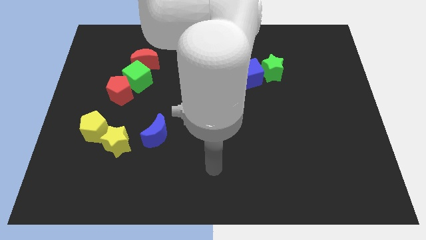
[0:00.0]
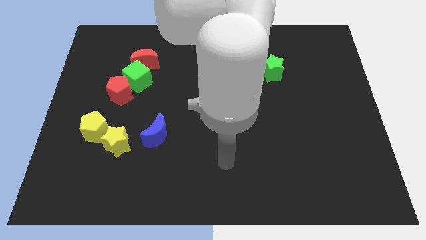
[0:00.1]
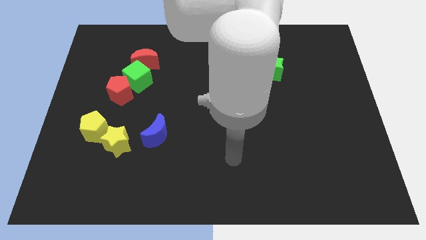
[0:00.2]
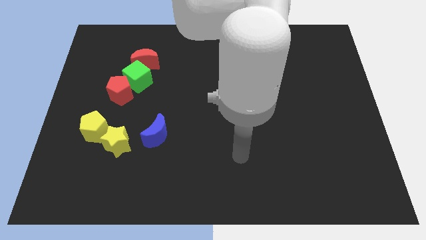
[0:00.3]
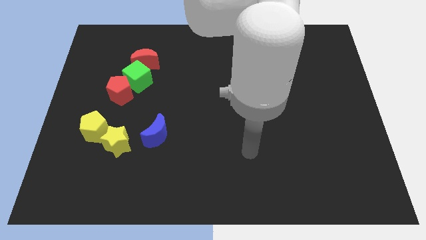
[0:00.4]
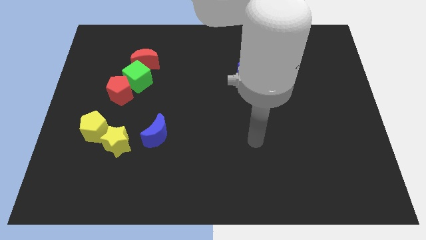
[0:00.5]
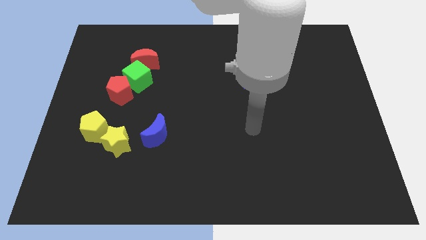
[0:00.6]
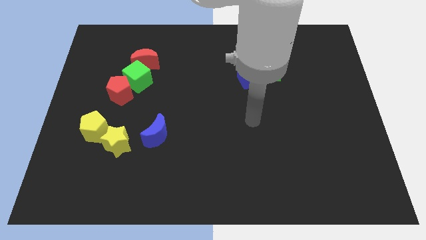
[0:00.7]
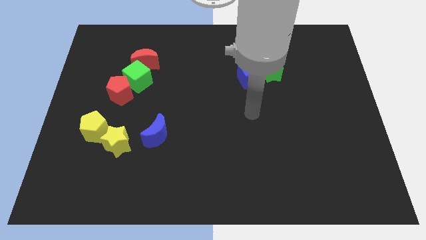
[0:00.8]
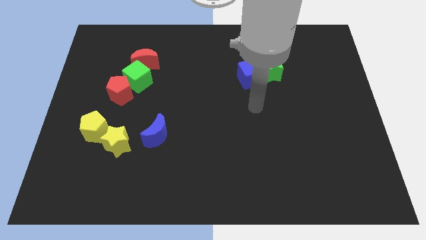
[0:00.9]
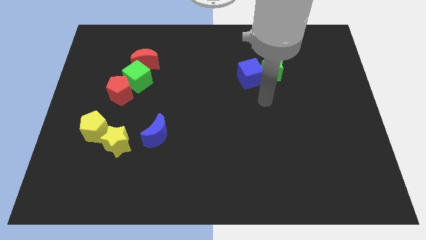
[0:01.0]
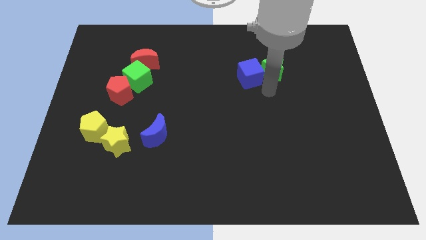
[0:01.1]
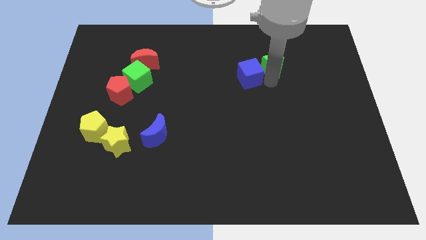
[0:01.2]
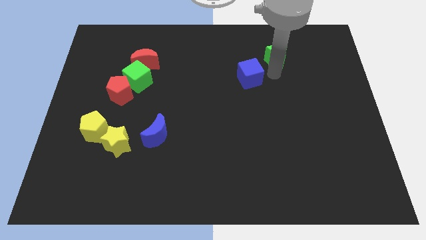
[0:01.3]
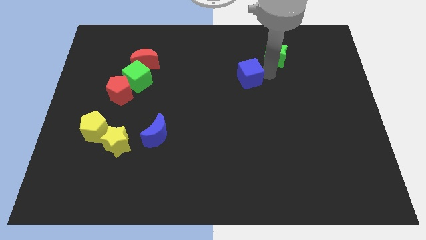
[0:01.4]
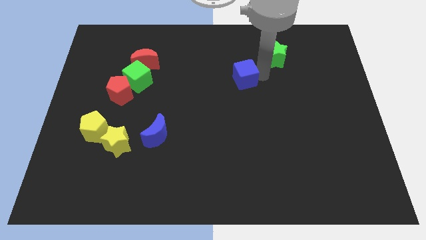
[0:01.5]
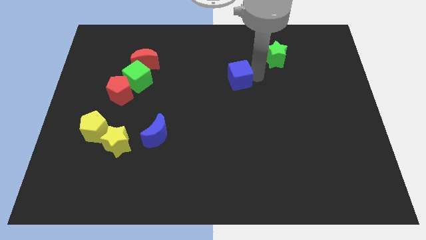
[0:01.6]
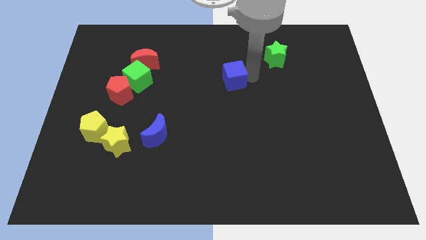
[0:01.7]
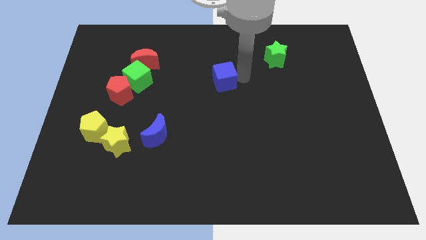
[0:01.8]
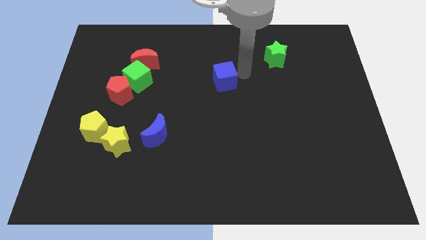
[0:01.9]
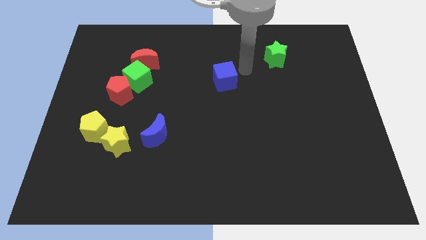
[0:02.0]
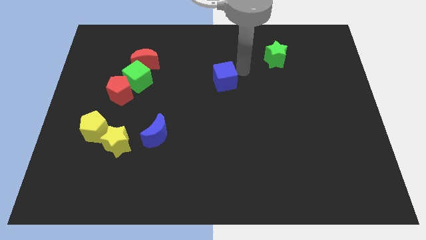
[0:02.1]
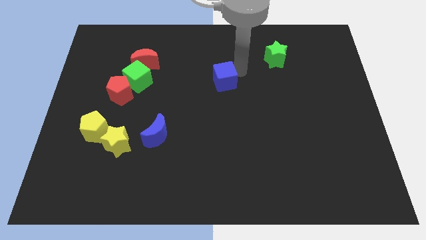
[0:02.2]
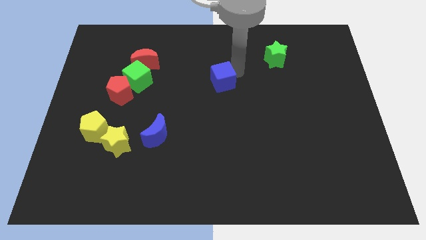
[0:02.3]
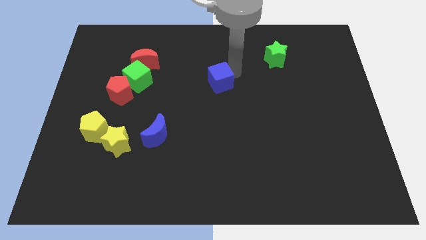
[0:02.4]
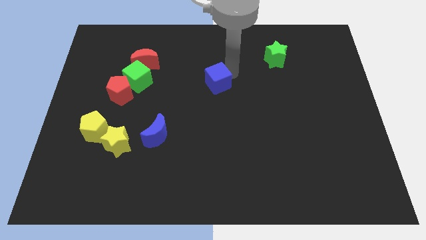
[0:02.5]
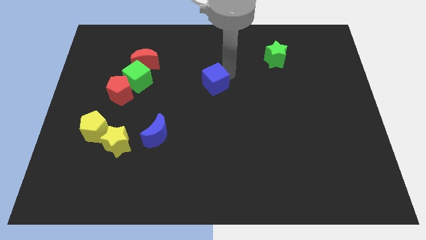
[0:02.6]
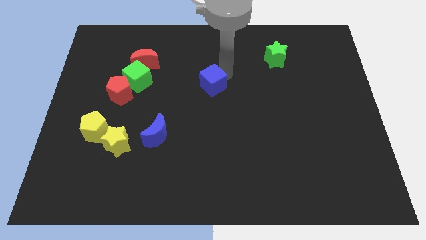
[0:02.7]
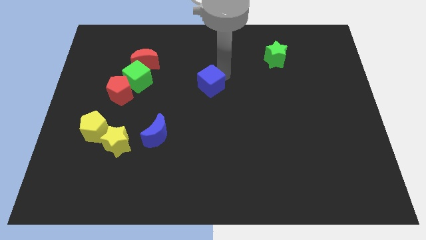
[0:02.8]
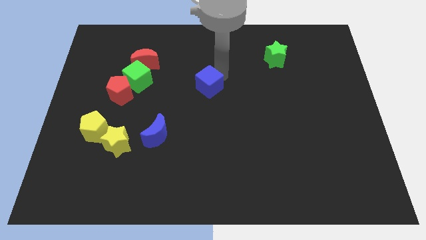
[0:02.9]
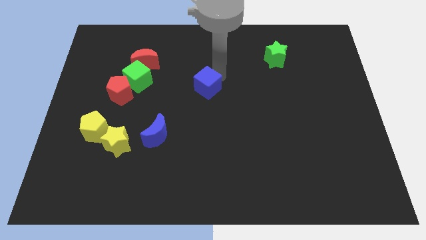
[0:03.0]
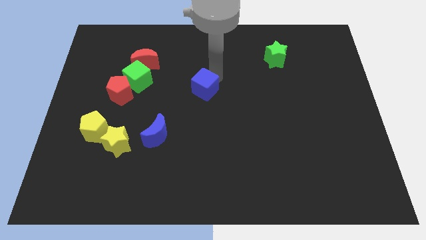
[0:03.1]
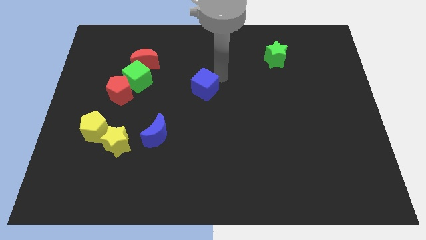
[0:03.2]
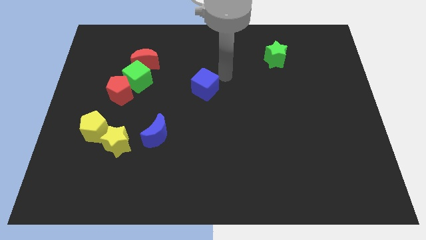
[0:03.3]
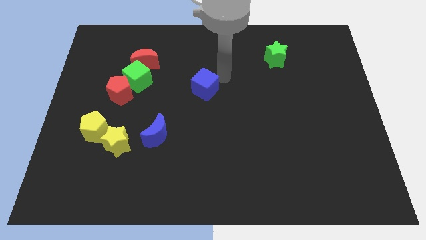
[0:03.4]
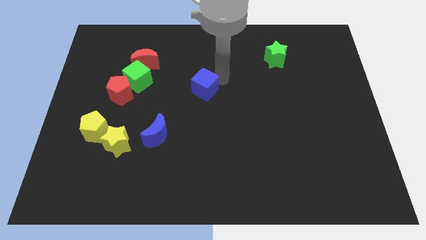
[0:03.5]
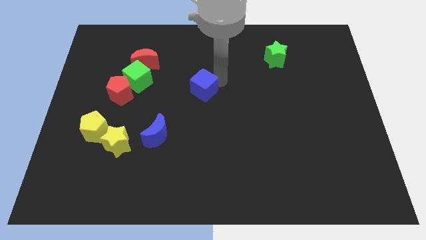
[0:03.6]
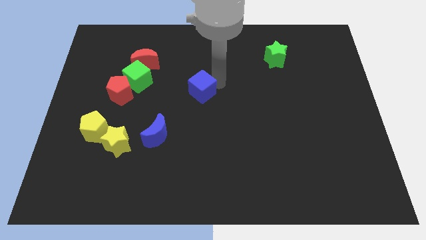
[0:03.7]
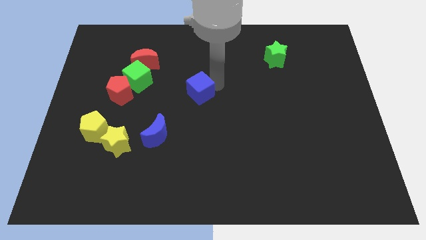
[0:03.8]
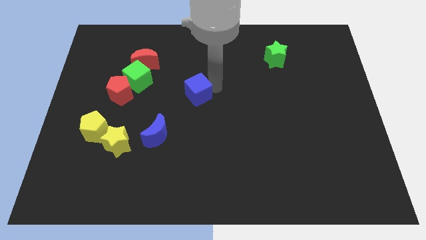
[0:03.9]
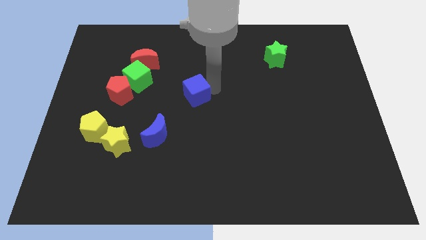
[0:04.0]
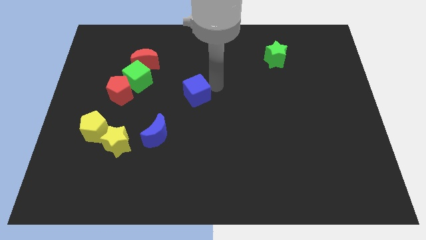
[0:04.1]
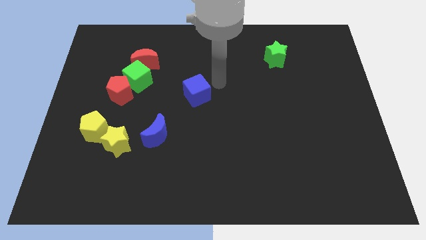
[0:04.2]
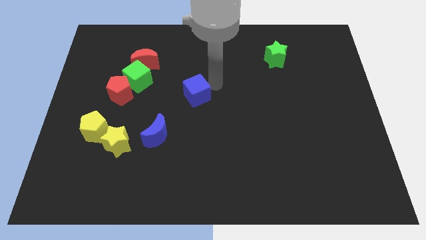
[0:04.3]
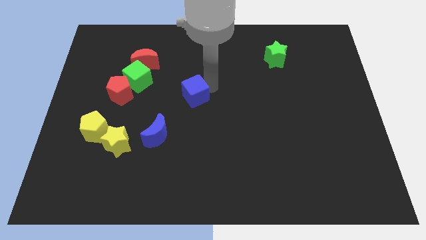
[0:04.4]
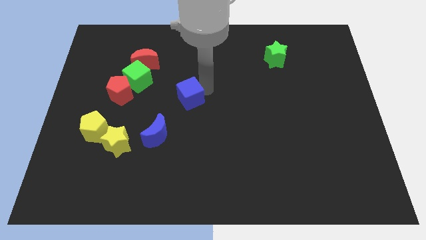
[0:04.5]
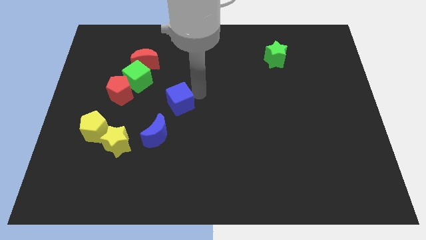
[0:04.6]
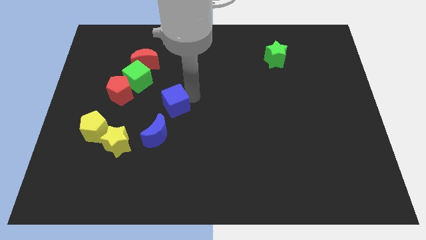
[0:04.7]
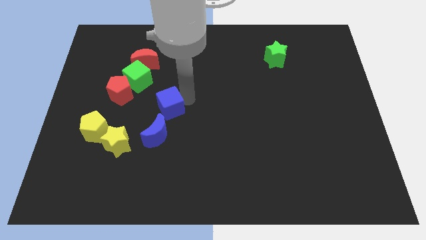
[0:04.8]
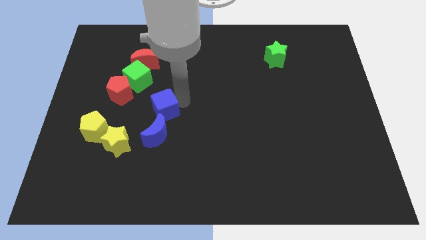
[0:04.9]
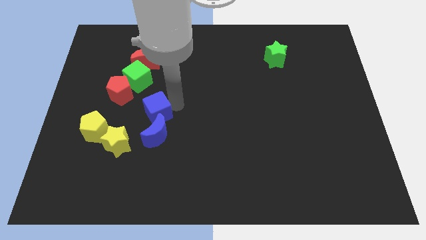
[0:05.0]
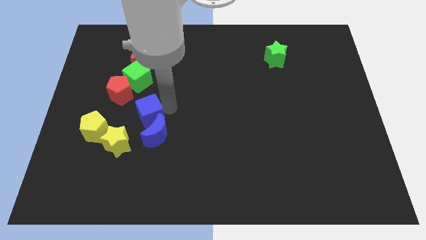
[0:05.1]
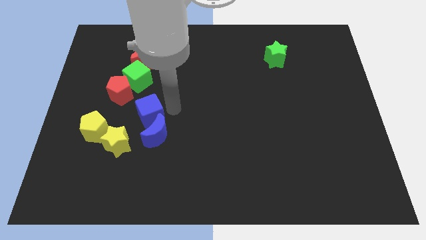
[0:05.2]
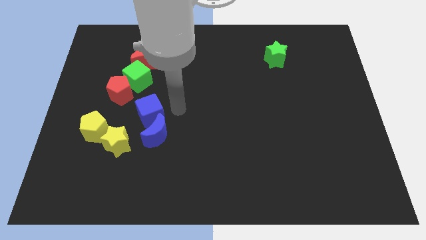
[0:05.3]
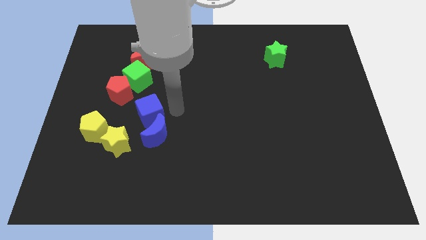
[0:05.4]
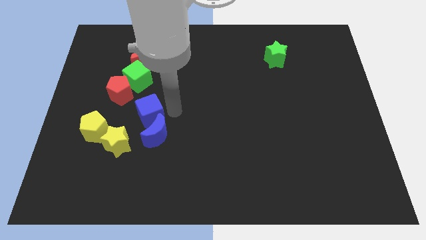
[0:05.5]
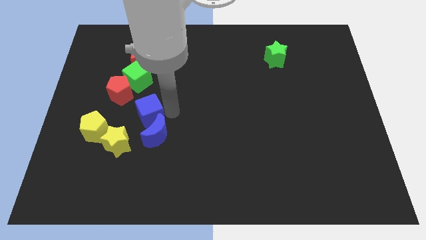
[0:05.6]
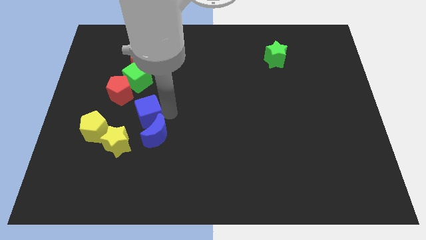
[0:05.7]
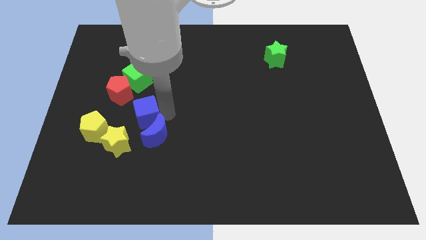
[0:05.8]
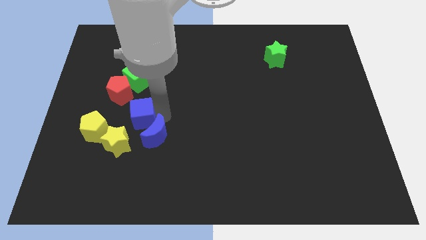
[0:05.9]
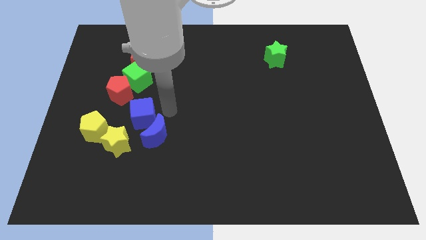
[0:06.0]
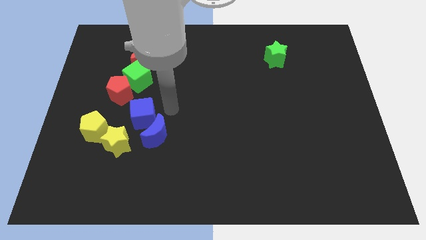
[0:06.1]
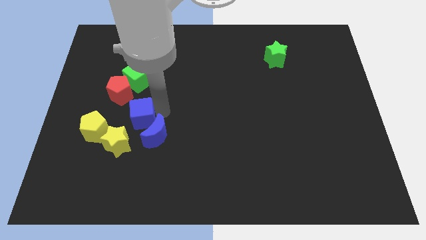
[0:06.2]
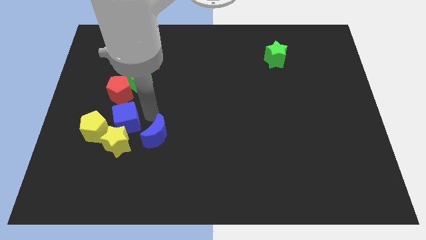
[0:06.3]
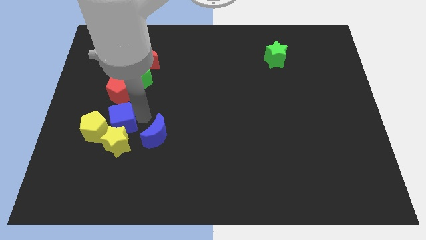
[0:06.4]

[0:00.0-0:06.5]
put the blue cube close to the yellow pentagon
